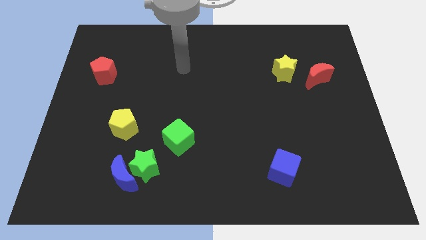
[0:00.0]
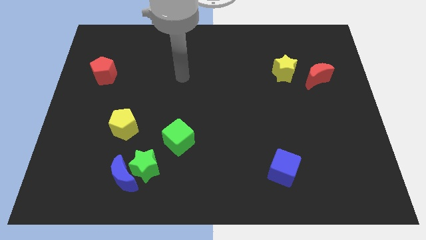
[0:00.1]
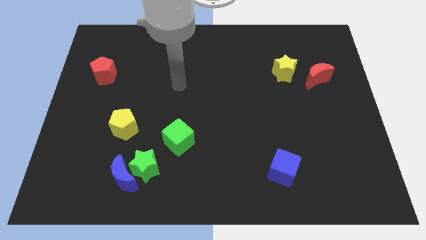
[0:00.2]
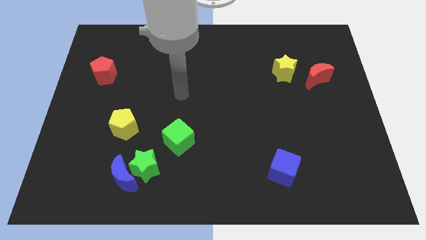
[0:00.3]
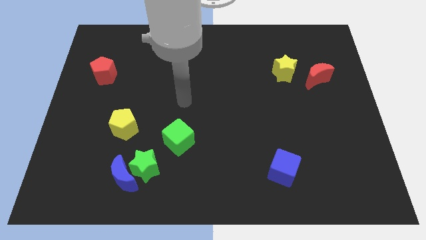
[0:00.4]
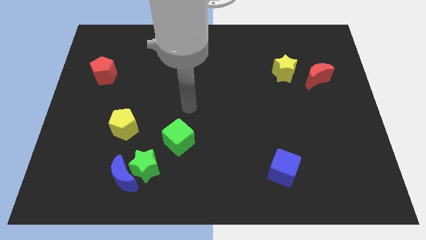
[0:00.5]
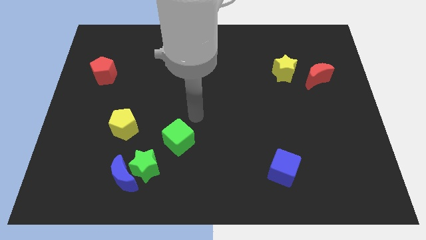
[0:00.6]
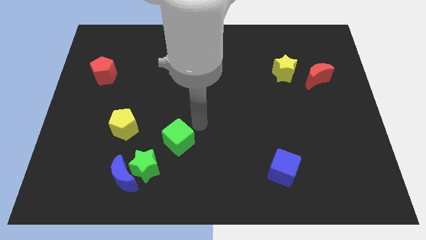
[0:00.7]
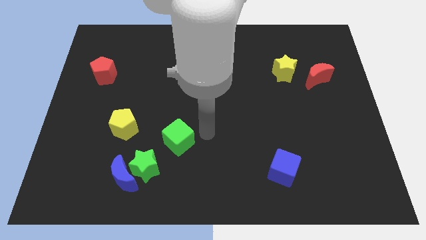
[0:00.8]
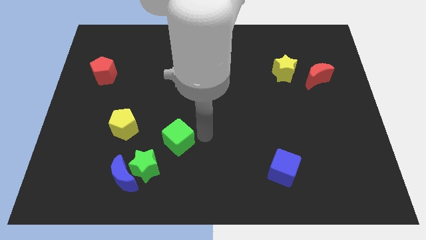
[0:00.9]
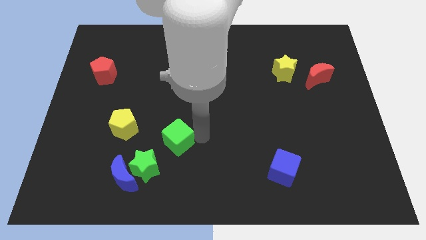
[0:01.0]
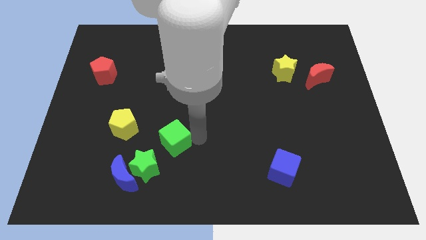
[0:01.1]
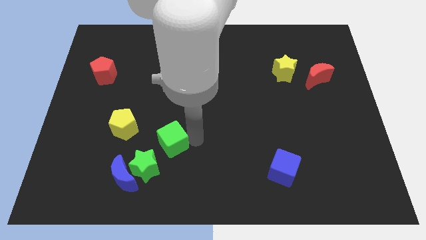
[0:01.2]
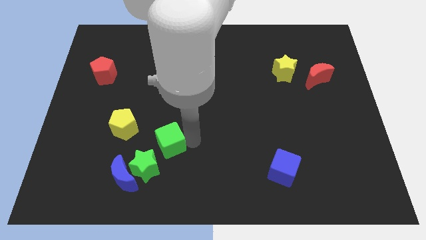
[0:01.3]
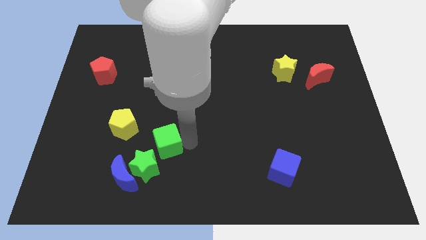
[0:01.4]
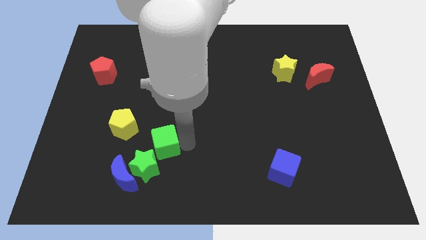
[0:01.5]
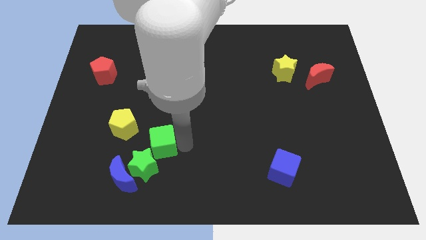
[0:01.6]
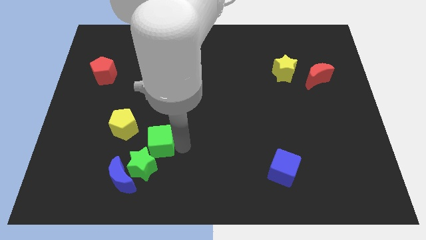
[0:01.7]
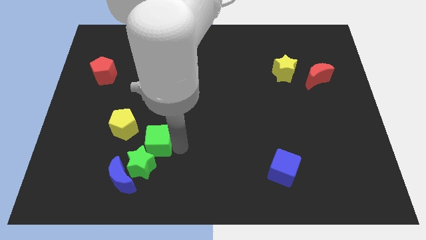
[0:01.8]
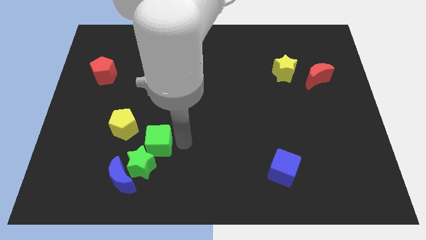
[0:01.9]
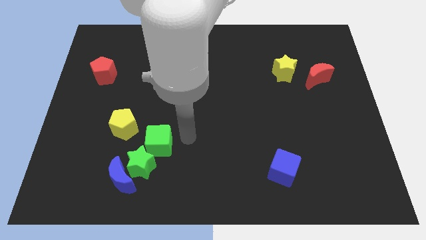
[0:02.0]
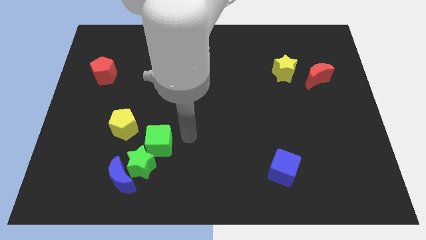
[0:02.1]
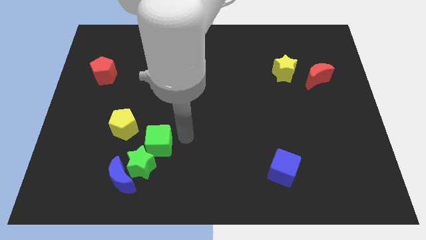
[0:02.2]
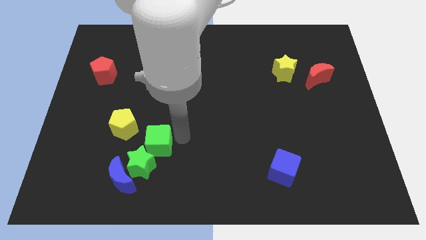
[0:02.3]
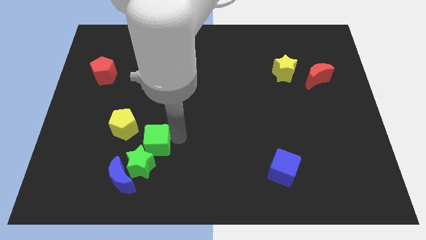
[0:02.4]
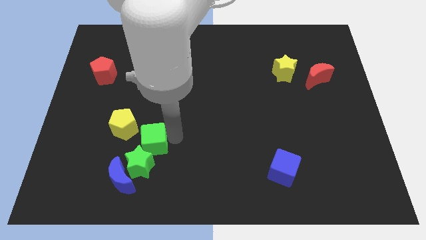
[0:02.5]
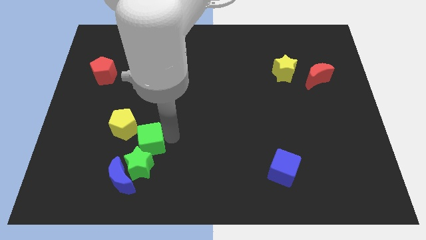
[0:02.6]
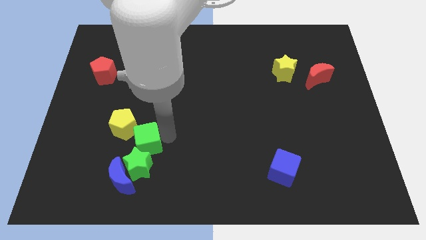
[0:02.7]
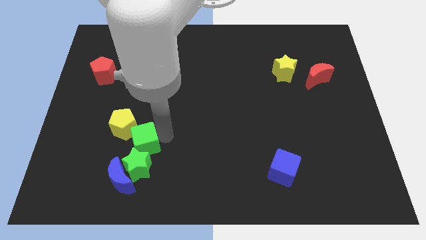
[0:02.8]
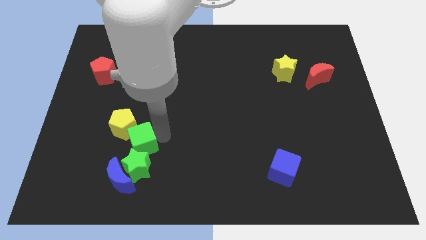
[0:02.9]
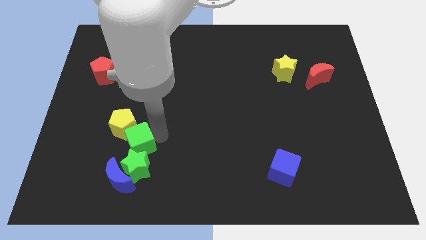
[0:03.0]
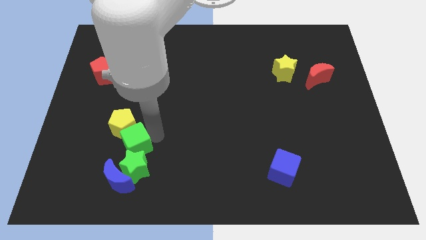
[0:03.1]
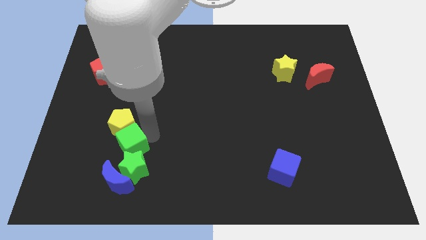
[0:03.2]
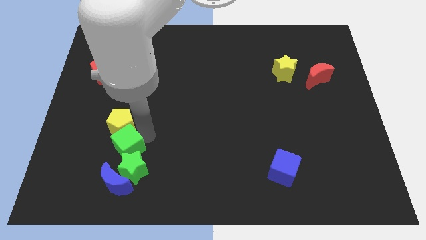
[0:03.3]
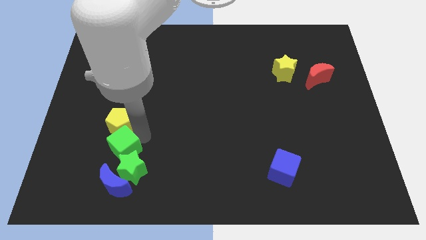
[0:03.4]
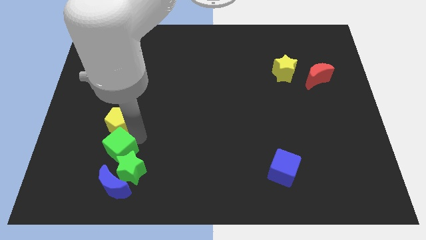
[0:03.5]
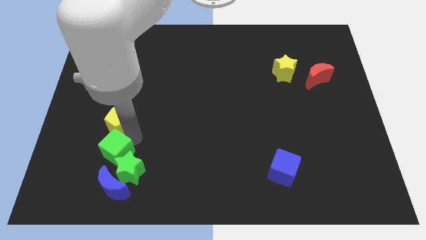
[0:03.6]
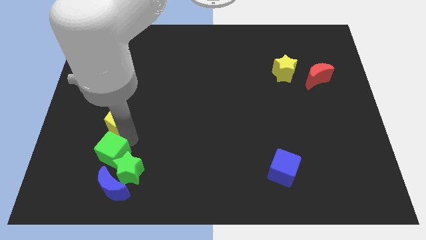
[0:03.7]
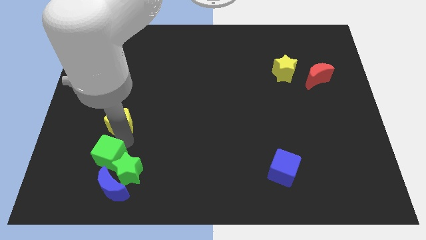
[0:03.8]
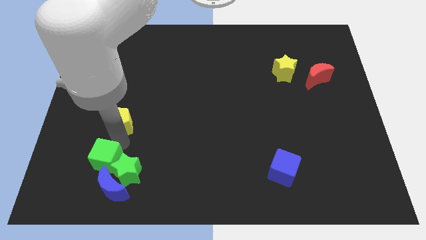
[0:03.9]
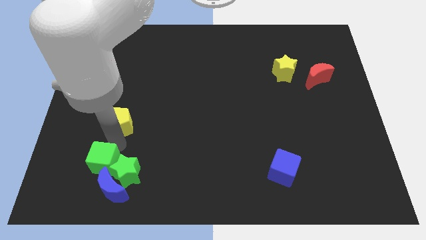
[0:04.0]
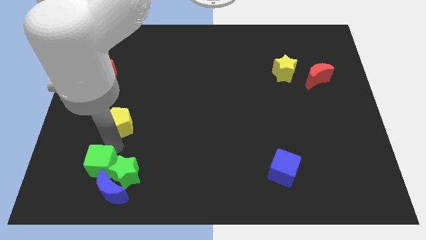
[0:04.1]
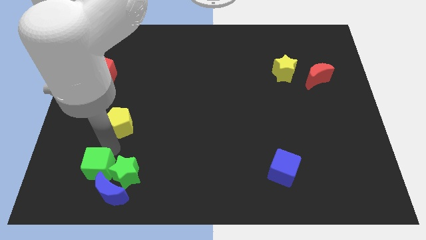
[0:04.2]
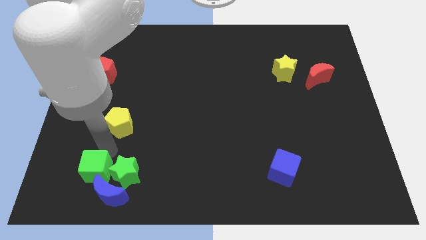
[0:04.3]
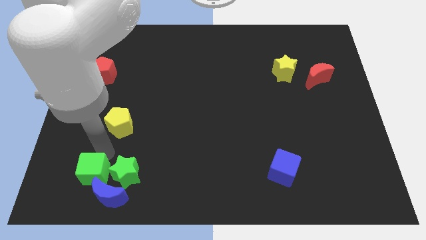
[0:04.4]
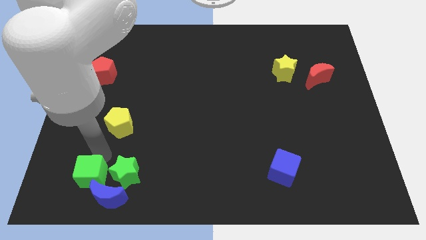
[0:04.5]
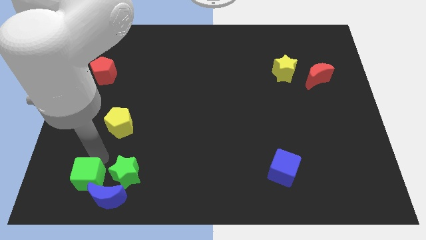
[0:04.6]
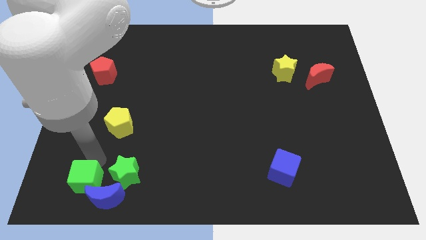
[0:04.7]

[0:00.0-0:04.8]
put the green cube towards the blue moon

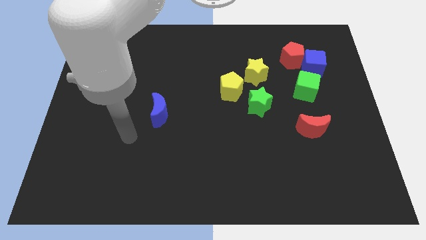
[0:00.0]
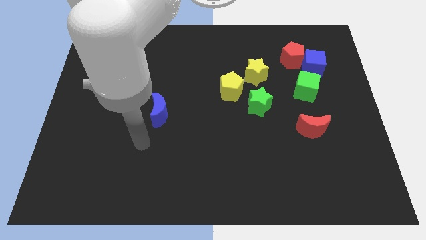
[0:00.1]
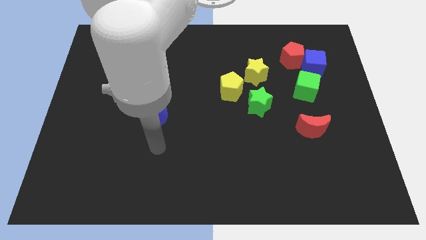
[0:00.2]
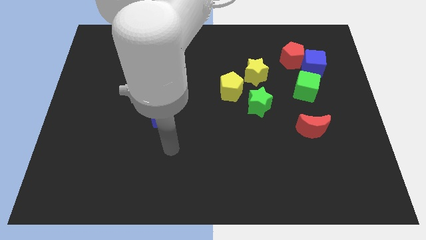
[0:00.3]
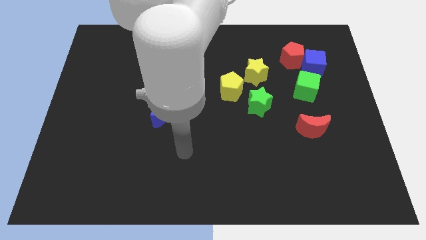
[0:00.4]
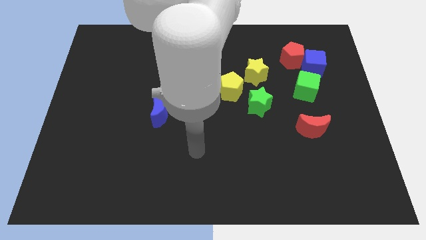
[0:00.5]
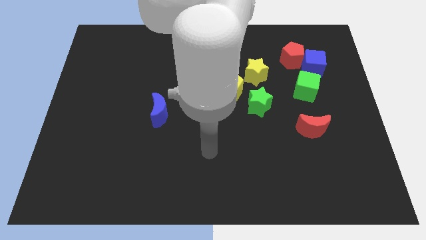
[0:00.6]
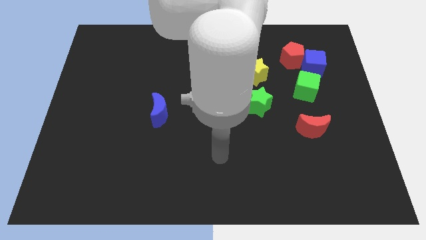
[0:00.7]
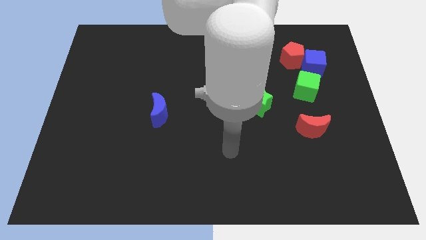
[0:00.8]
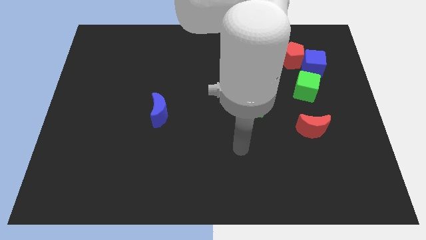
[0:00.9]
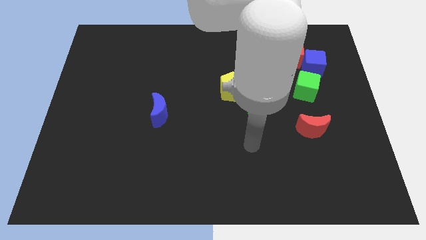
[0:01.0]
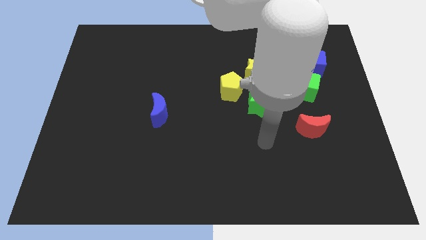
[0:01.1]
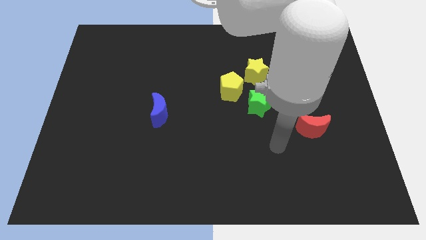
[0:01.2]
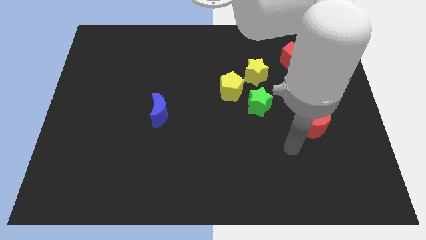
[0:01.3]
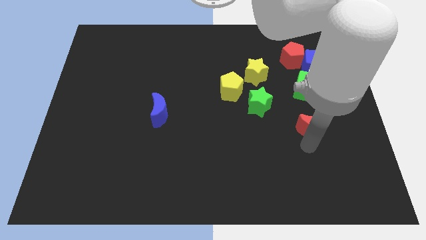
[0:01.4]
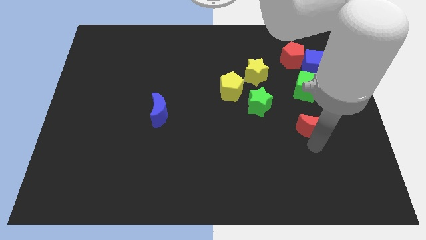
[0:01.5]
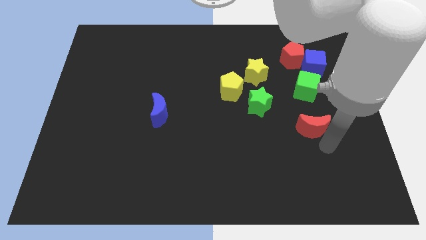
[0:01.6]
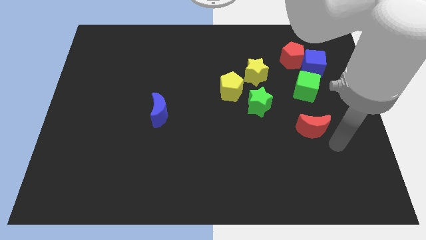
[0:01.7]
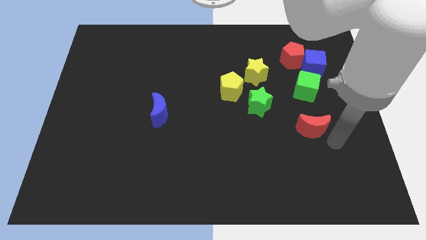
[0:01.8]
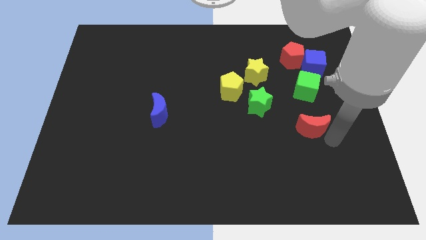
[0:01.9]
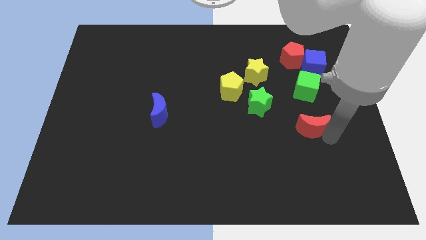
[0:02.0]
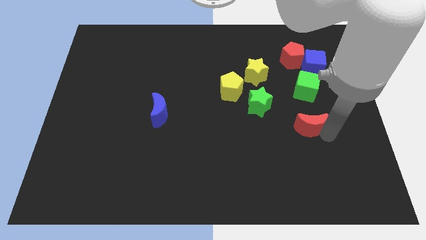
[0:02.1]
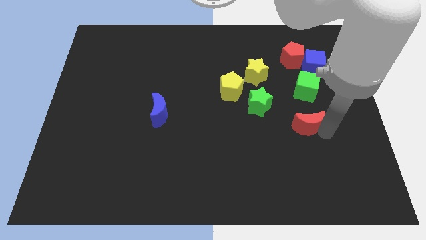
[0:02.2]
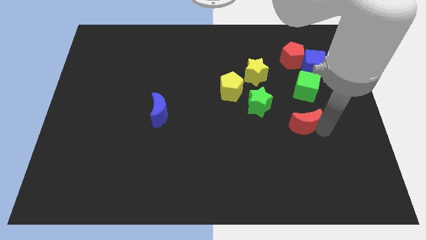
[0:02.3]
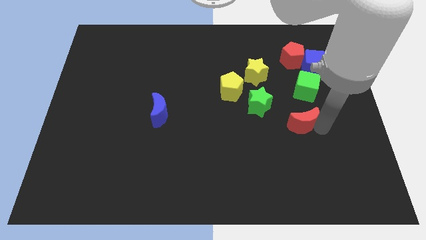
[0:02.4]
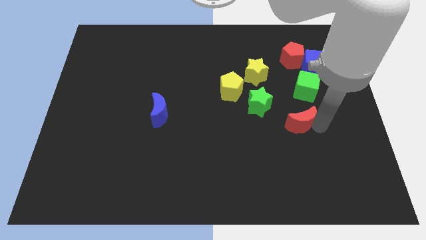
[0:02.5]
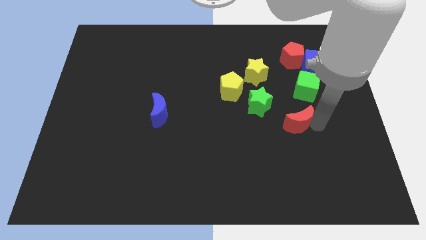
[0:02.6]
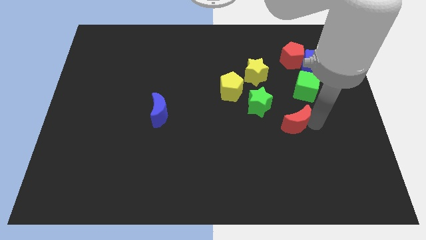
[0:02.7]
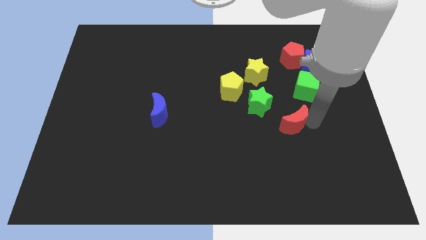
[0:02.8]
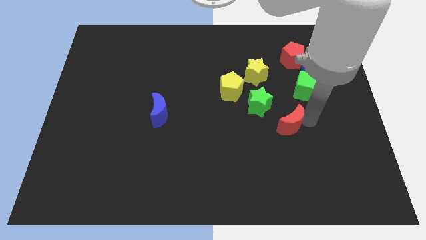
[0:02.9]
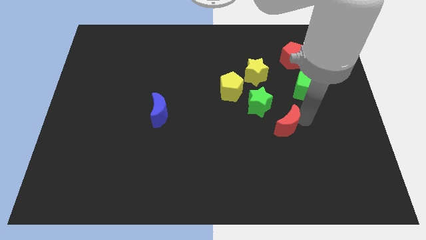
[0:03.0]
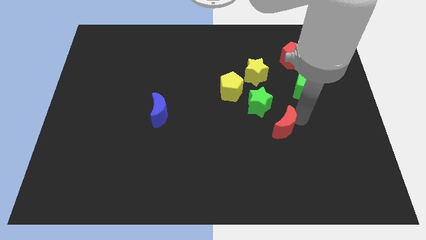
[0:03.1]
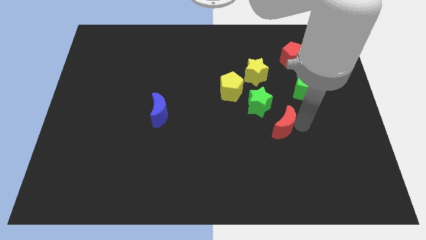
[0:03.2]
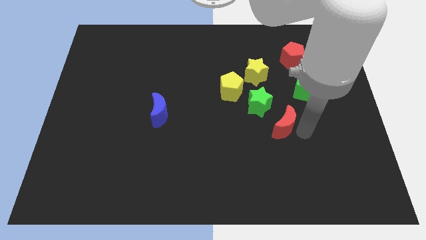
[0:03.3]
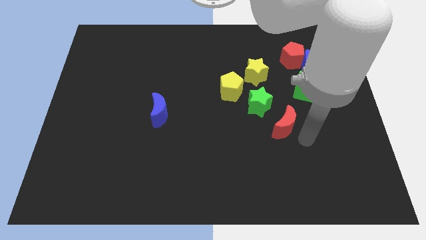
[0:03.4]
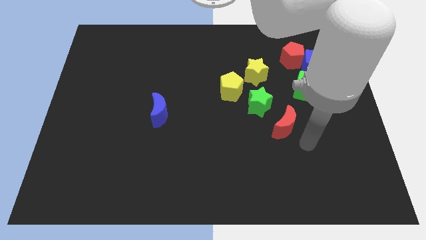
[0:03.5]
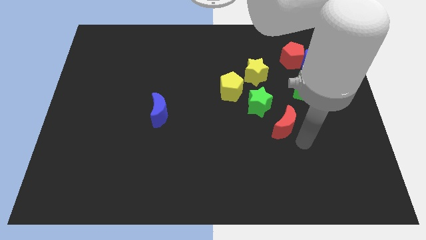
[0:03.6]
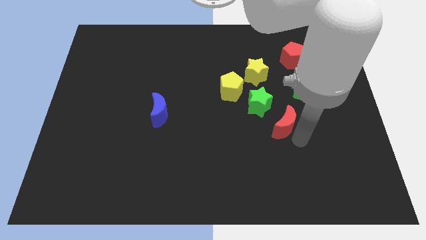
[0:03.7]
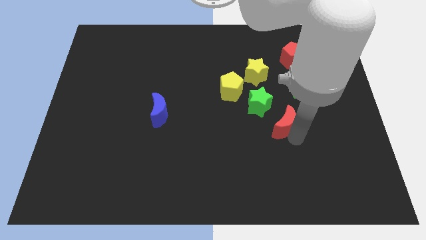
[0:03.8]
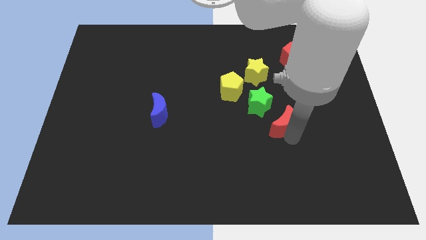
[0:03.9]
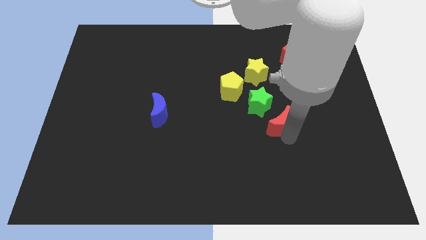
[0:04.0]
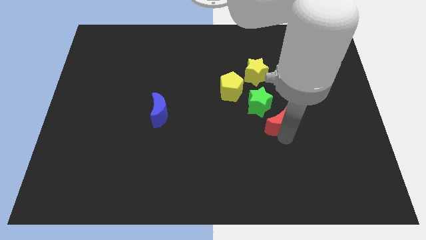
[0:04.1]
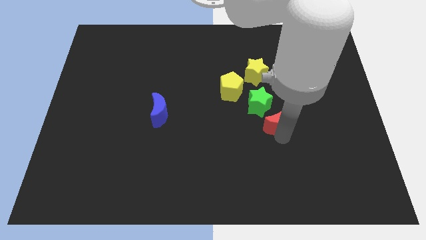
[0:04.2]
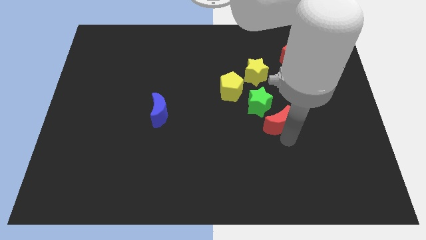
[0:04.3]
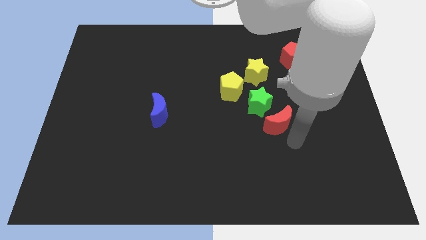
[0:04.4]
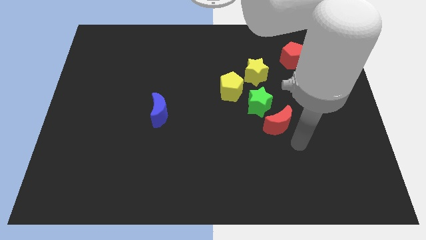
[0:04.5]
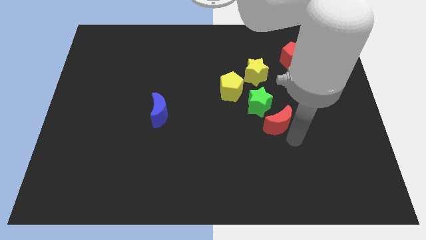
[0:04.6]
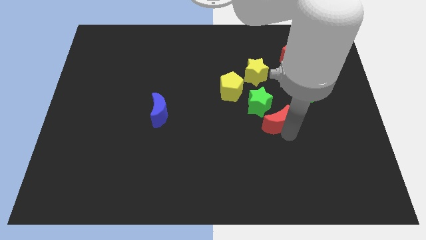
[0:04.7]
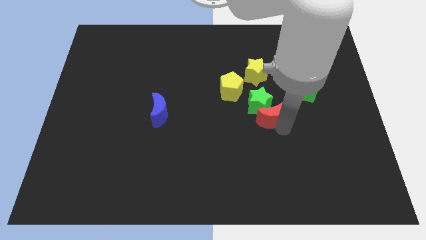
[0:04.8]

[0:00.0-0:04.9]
slide the red moon close to the green star
